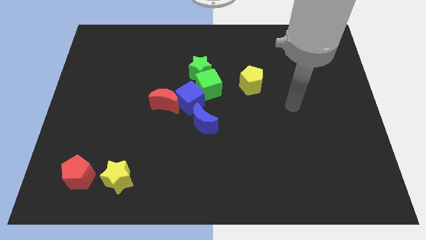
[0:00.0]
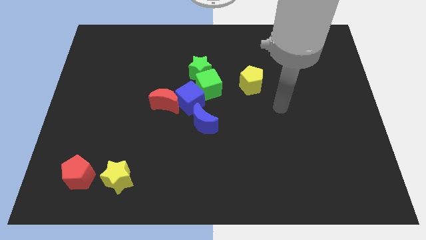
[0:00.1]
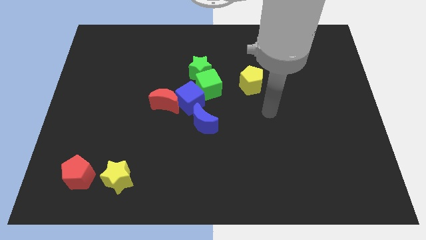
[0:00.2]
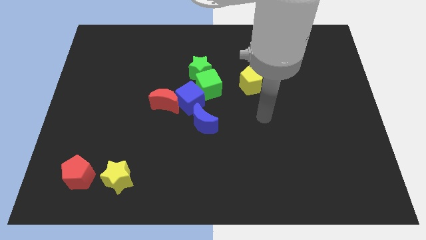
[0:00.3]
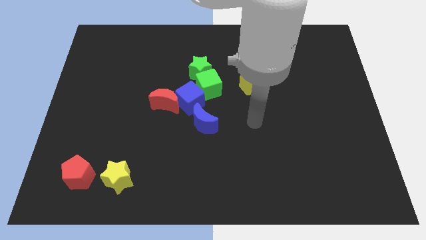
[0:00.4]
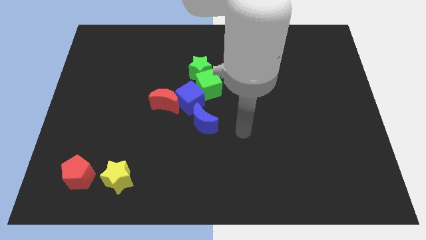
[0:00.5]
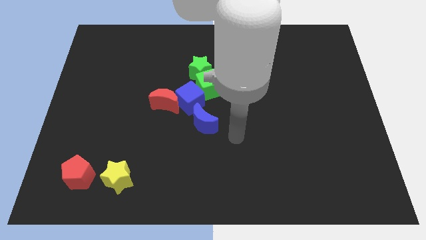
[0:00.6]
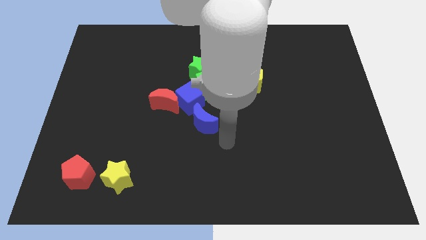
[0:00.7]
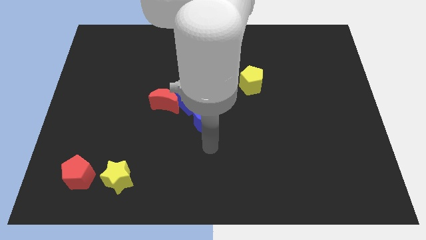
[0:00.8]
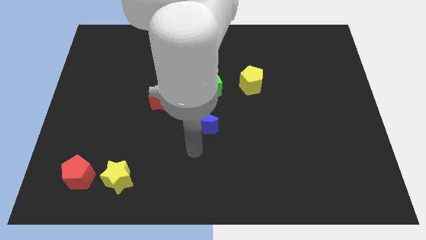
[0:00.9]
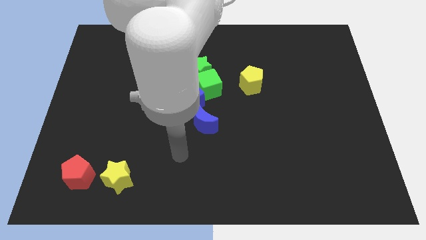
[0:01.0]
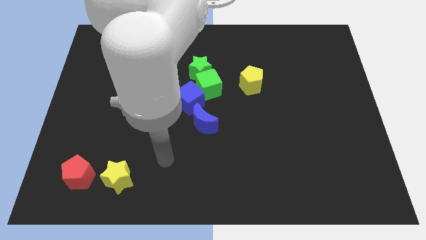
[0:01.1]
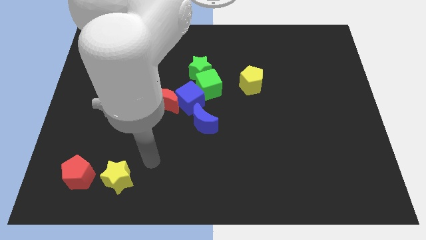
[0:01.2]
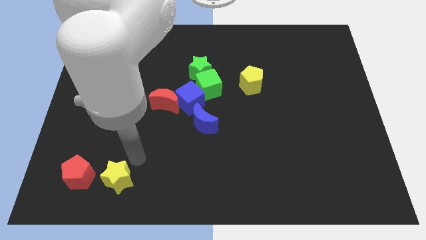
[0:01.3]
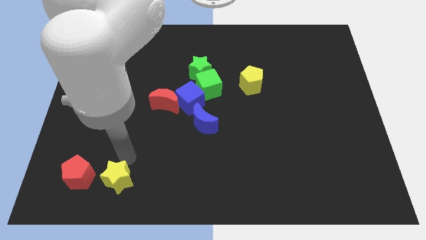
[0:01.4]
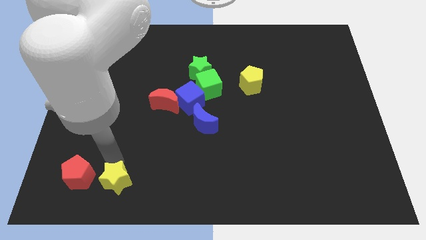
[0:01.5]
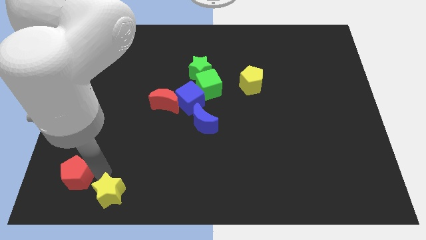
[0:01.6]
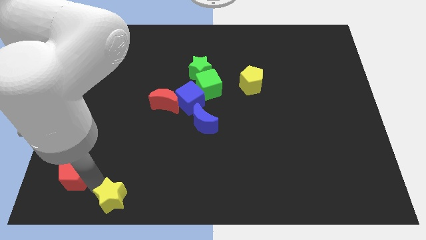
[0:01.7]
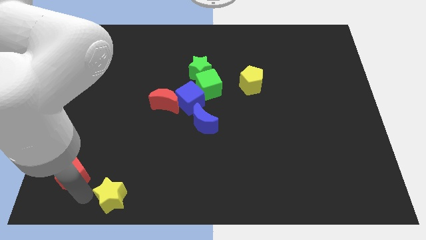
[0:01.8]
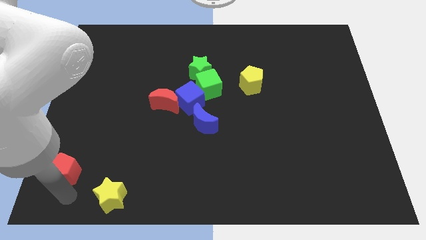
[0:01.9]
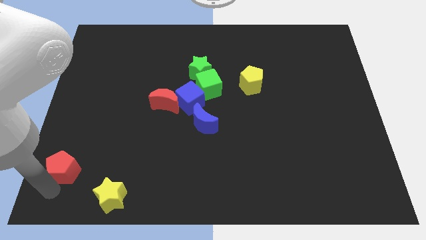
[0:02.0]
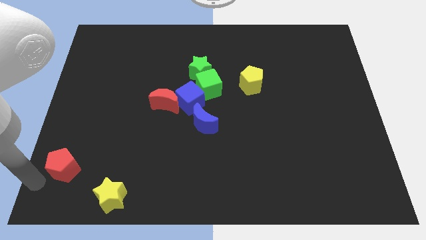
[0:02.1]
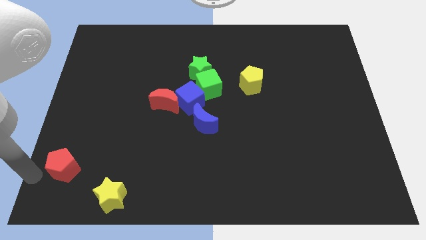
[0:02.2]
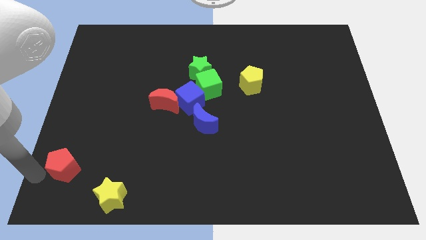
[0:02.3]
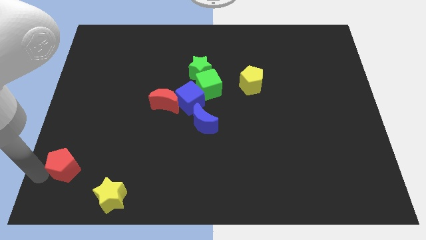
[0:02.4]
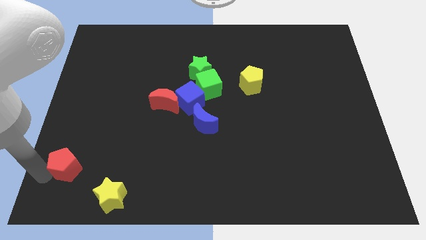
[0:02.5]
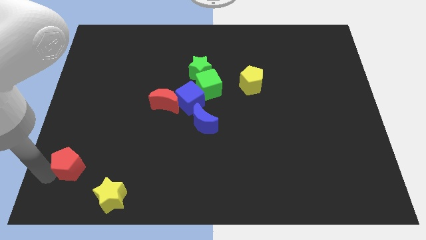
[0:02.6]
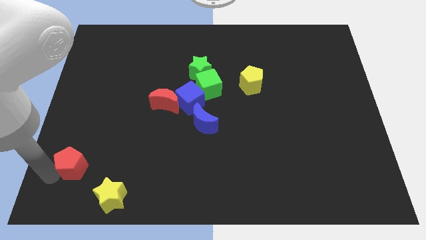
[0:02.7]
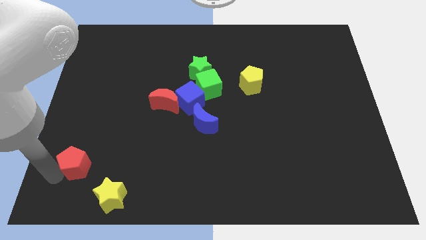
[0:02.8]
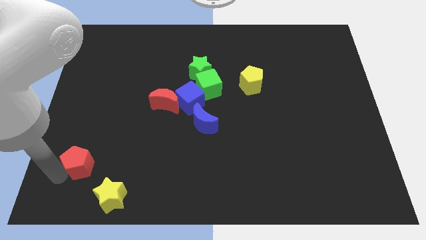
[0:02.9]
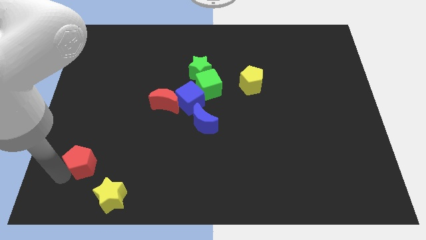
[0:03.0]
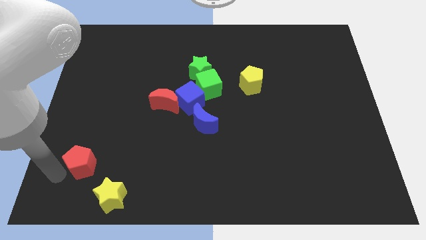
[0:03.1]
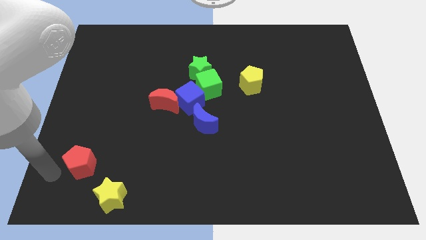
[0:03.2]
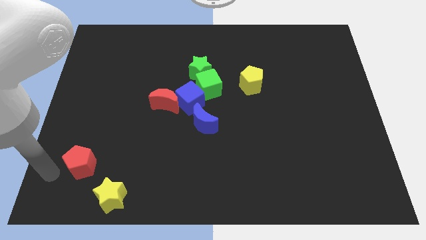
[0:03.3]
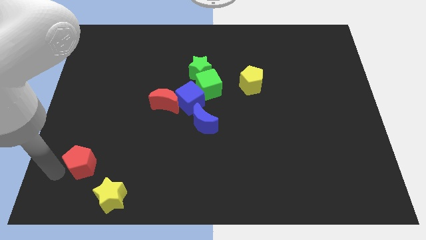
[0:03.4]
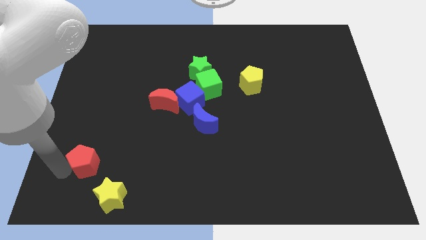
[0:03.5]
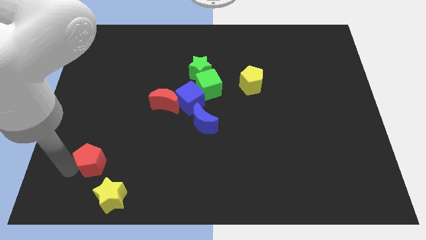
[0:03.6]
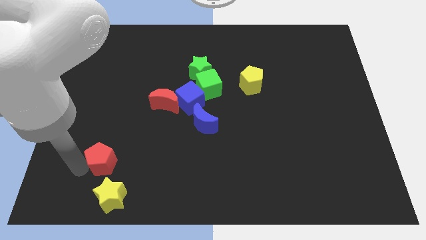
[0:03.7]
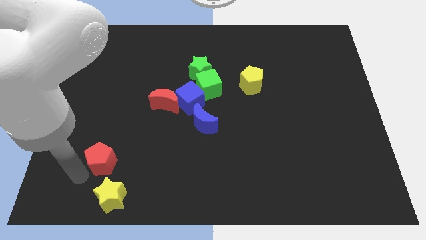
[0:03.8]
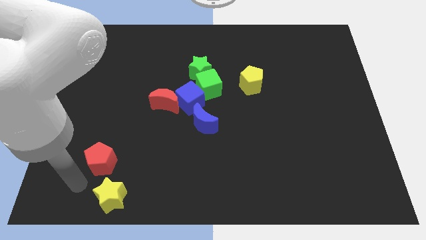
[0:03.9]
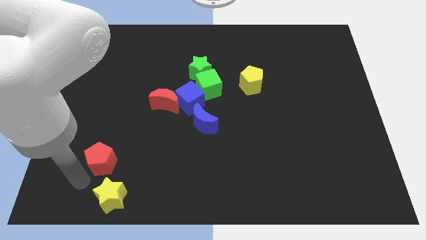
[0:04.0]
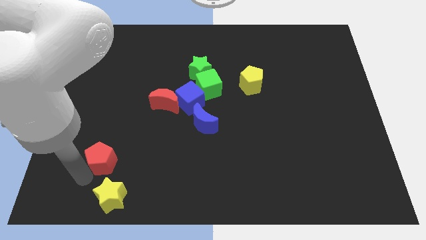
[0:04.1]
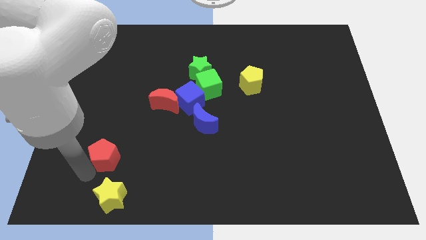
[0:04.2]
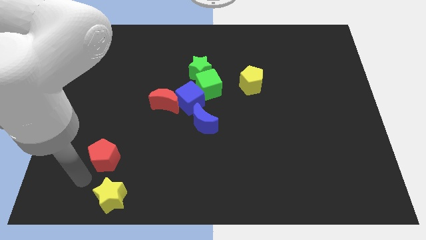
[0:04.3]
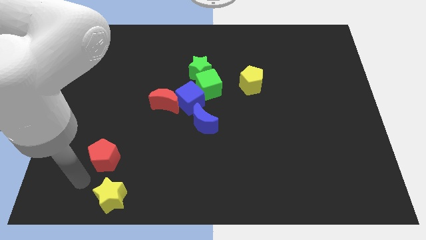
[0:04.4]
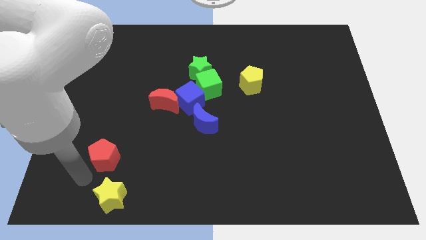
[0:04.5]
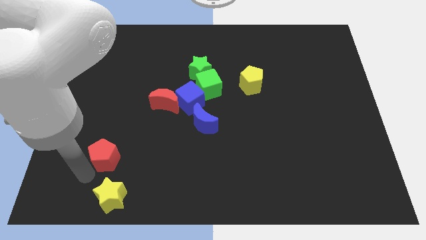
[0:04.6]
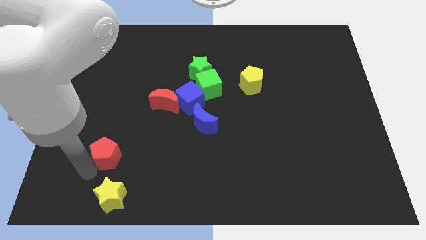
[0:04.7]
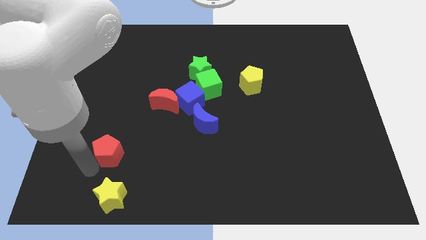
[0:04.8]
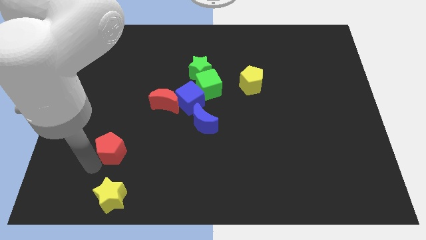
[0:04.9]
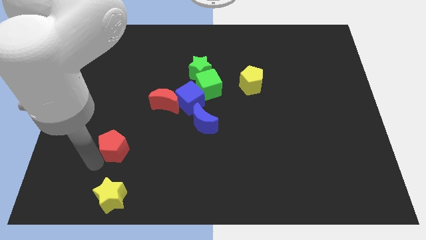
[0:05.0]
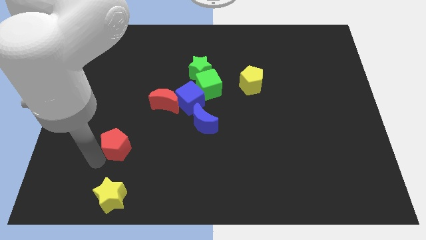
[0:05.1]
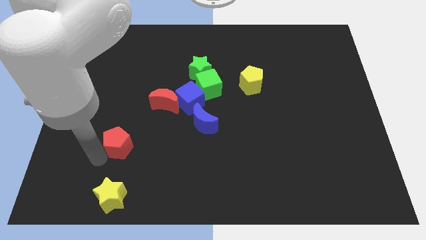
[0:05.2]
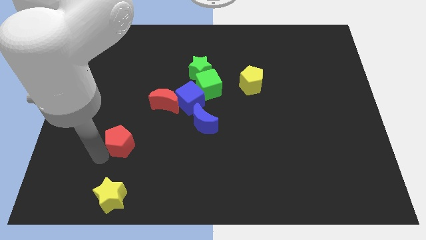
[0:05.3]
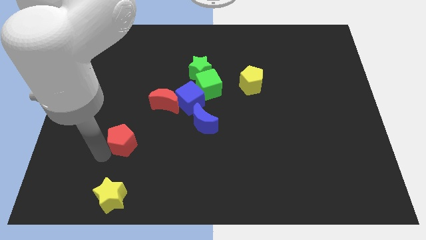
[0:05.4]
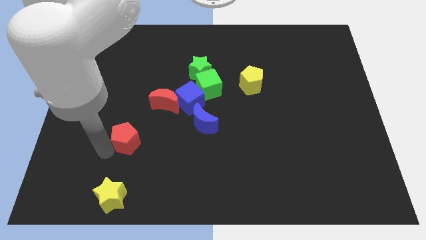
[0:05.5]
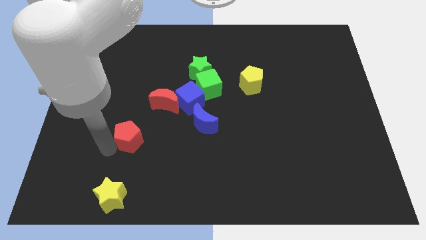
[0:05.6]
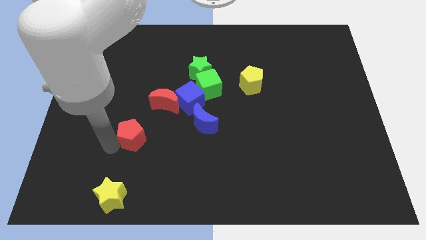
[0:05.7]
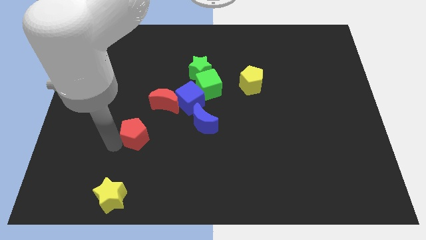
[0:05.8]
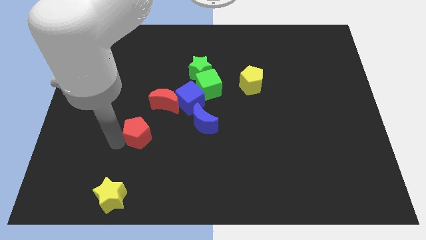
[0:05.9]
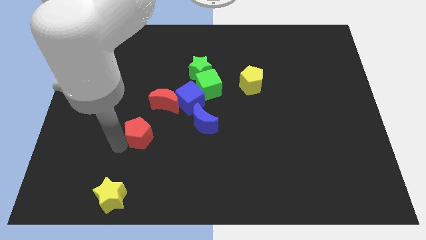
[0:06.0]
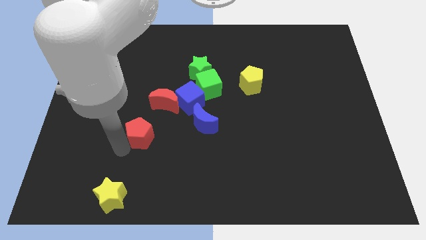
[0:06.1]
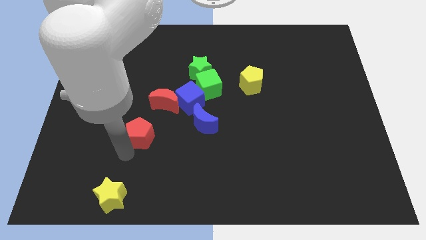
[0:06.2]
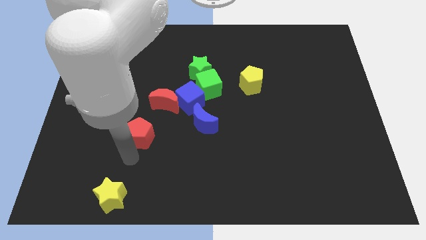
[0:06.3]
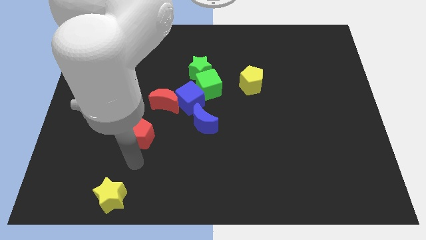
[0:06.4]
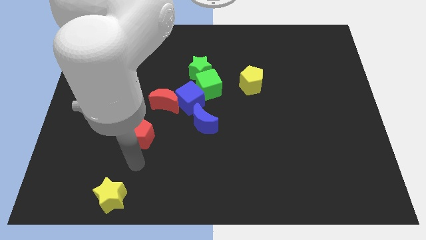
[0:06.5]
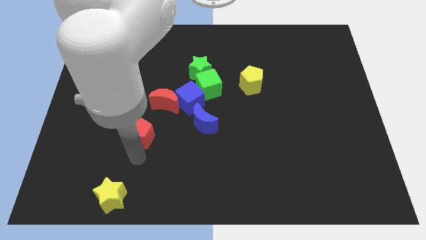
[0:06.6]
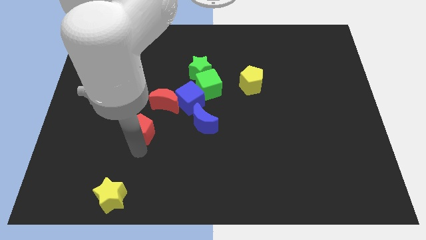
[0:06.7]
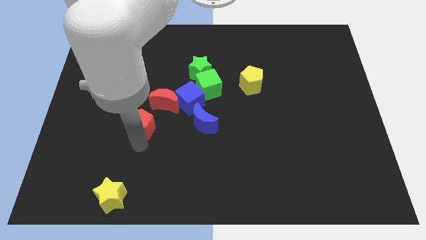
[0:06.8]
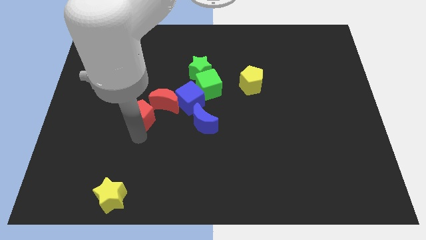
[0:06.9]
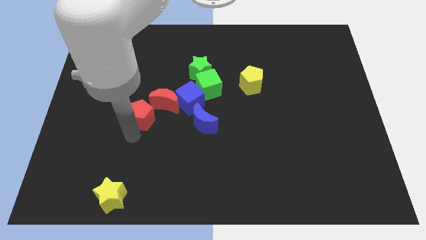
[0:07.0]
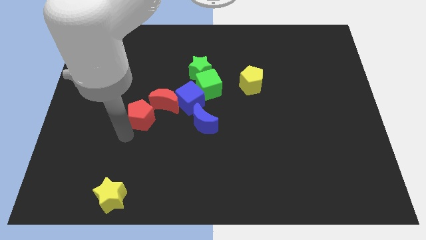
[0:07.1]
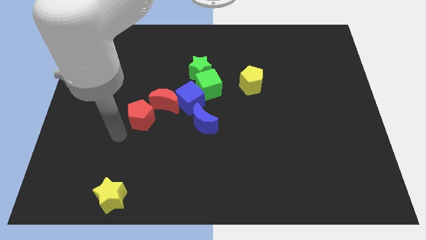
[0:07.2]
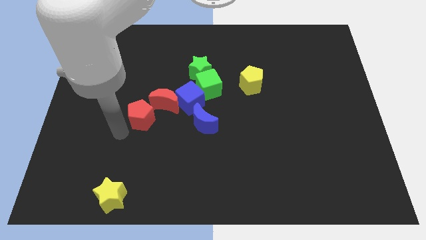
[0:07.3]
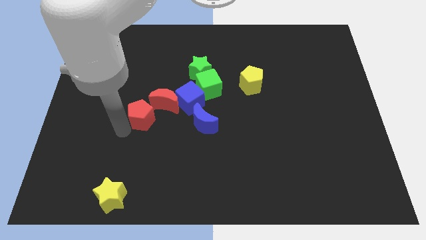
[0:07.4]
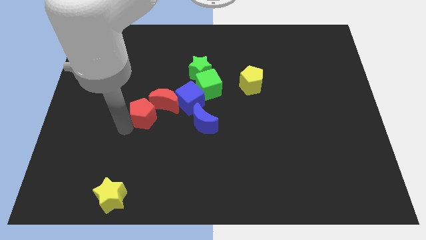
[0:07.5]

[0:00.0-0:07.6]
push the red pentagon towards the red moon
